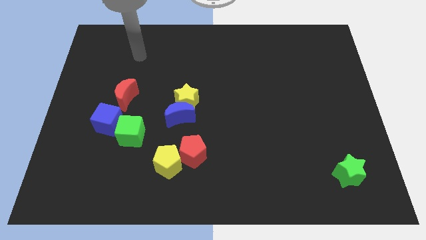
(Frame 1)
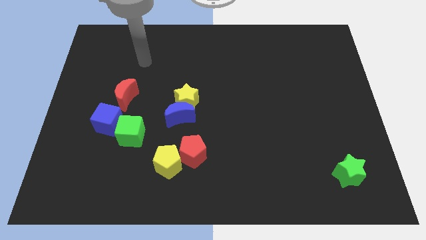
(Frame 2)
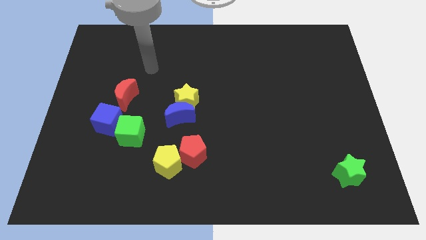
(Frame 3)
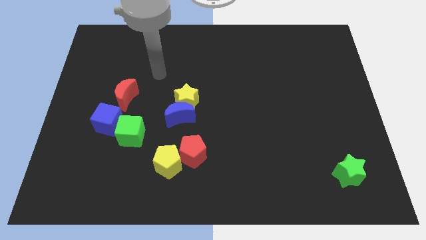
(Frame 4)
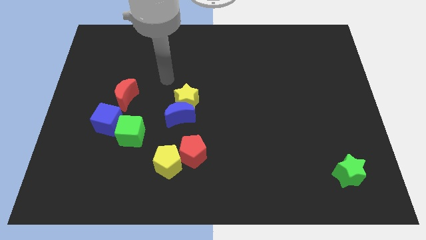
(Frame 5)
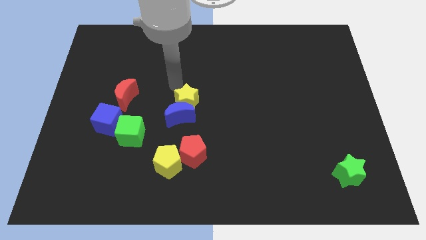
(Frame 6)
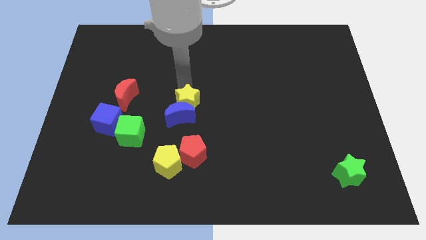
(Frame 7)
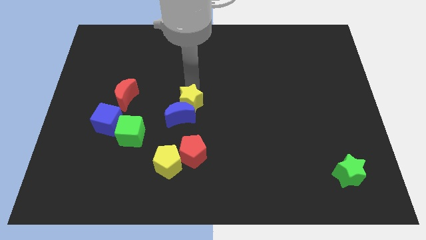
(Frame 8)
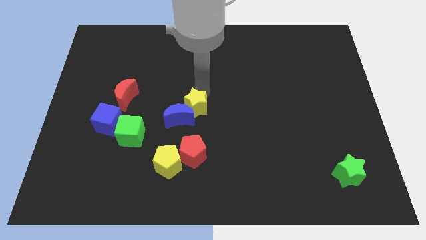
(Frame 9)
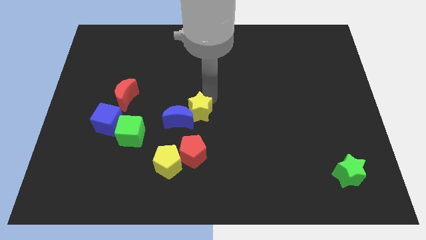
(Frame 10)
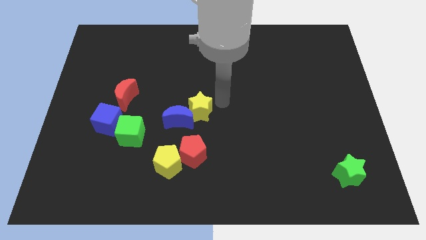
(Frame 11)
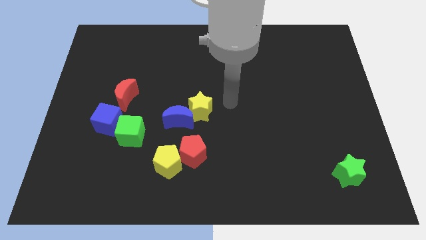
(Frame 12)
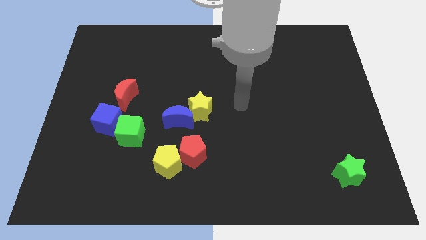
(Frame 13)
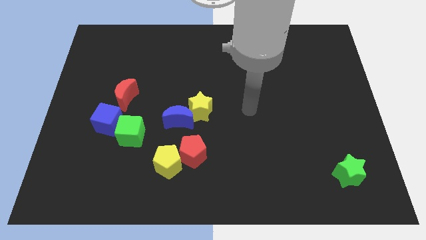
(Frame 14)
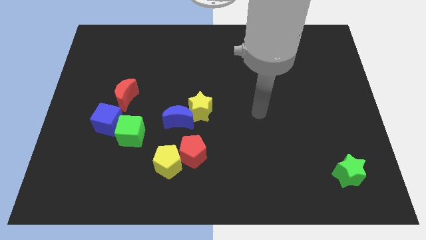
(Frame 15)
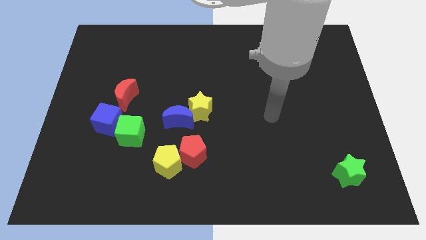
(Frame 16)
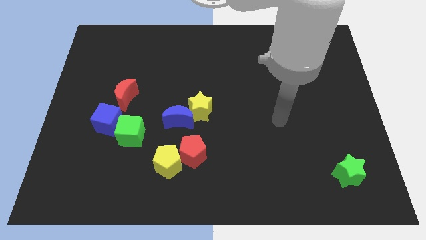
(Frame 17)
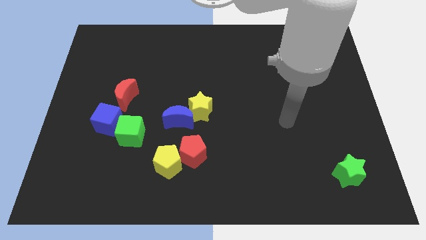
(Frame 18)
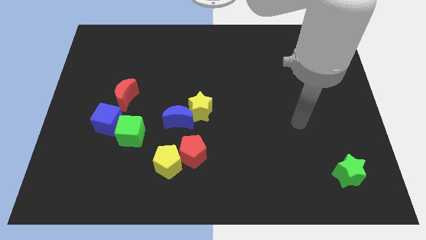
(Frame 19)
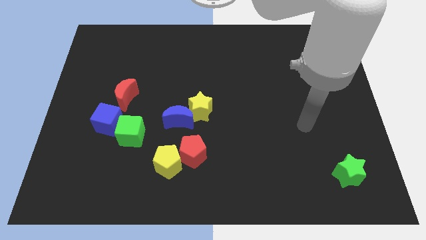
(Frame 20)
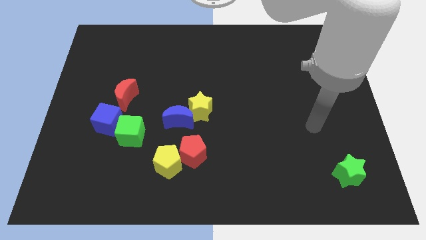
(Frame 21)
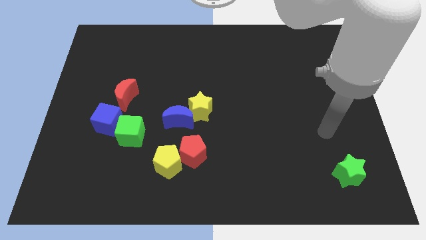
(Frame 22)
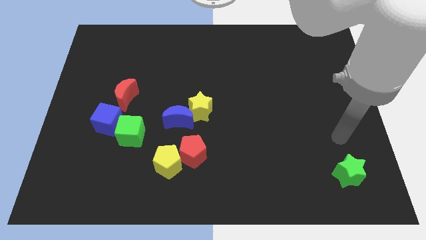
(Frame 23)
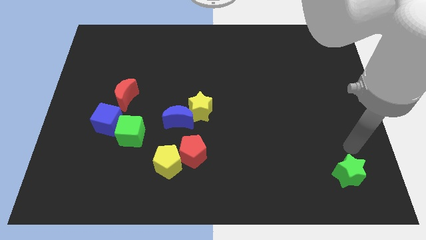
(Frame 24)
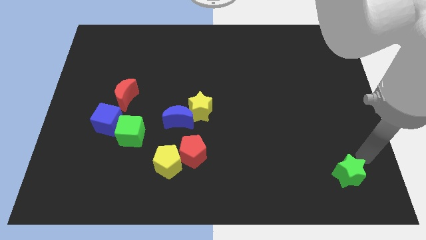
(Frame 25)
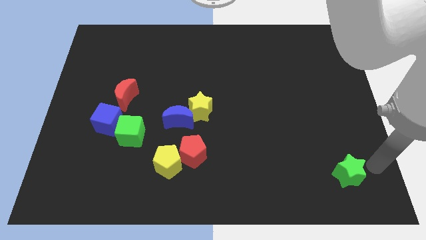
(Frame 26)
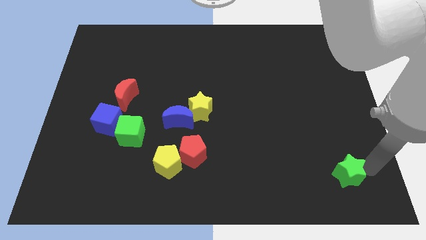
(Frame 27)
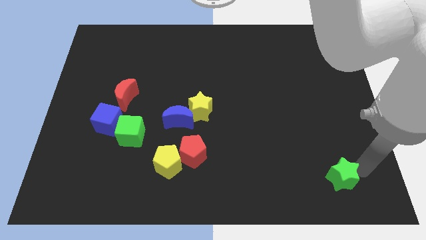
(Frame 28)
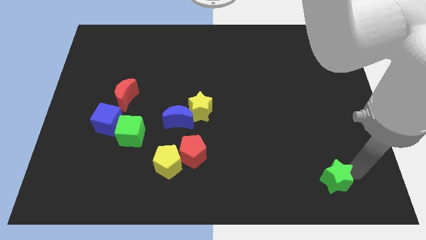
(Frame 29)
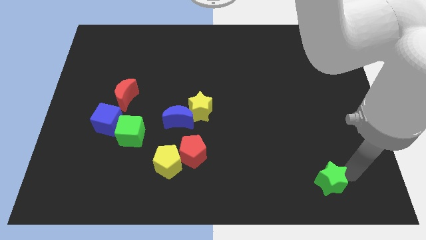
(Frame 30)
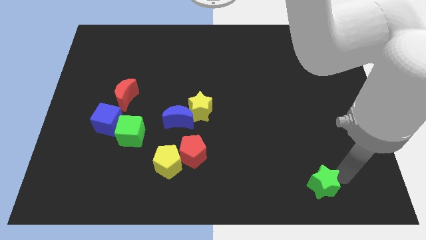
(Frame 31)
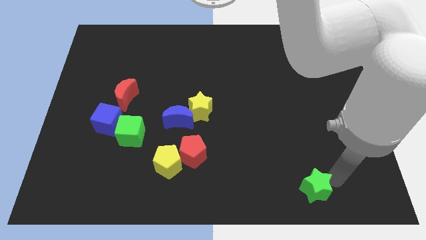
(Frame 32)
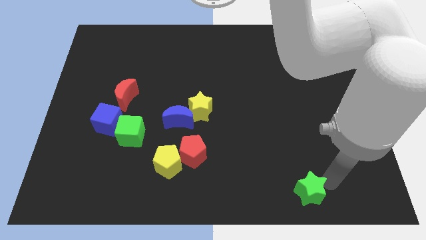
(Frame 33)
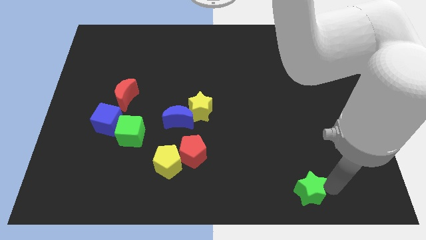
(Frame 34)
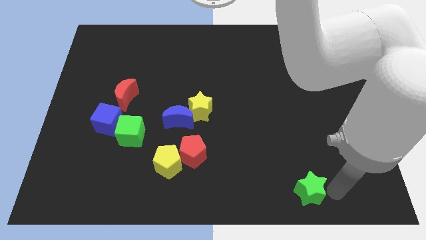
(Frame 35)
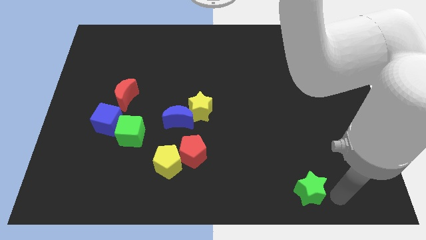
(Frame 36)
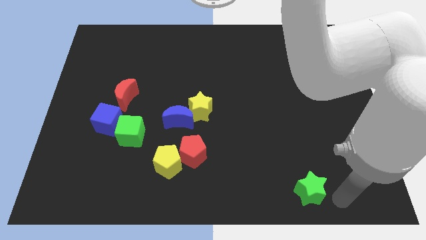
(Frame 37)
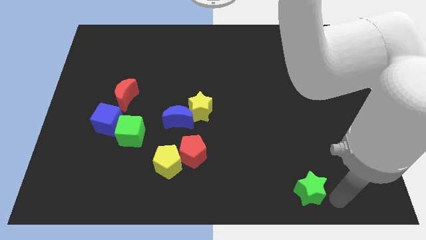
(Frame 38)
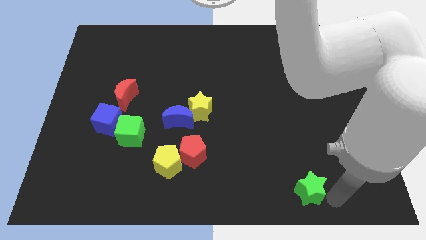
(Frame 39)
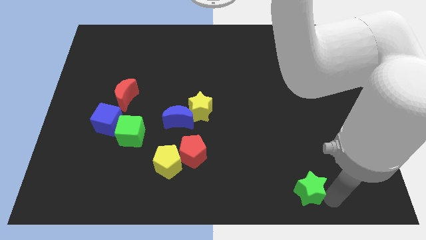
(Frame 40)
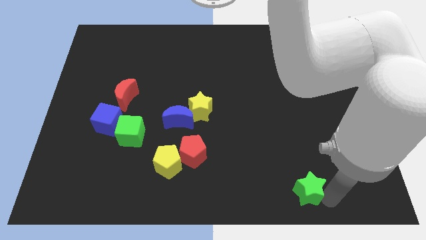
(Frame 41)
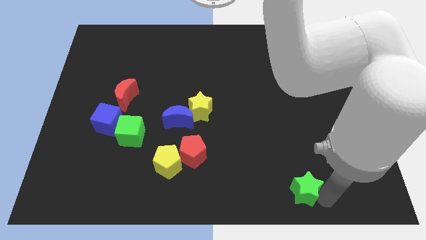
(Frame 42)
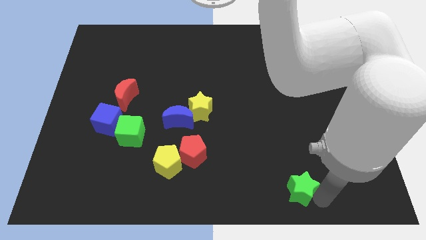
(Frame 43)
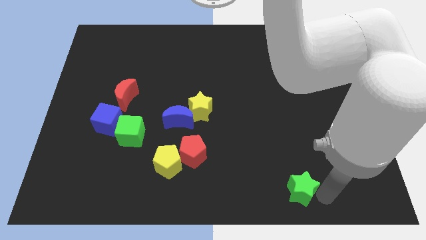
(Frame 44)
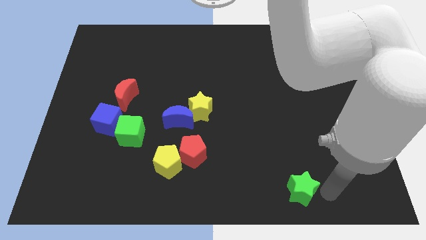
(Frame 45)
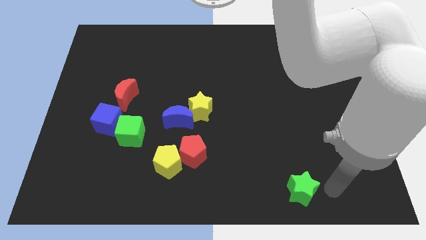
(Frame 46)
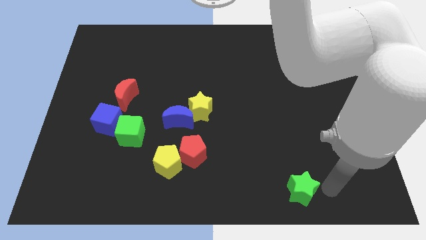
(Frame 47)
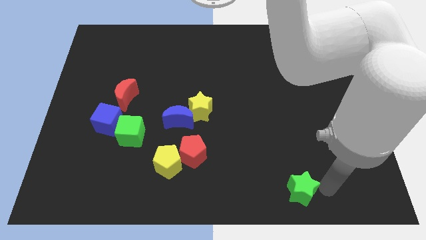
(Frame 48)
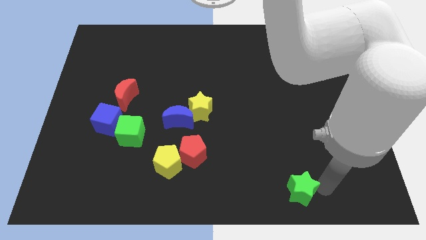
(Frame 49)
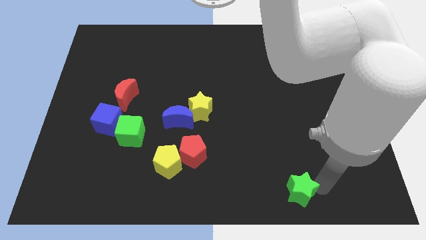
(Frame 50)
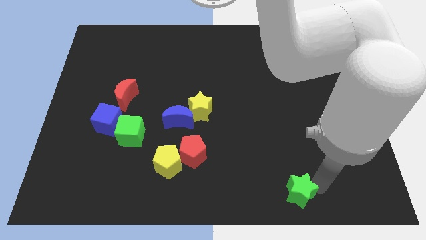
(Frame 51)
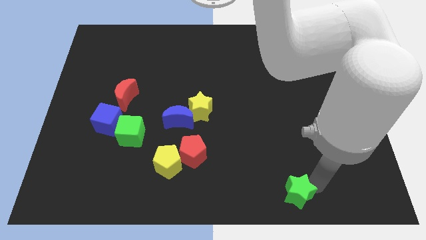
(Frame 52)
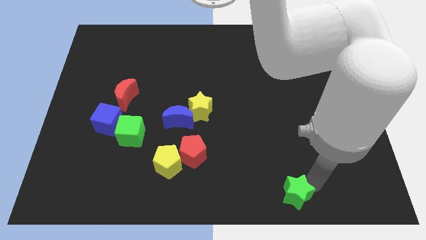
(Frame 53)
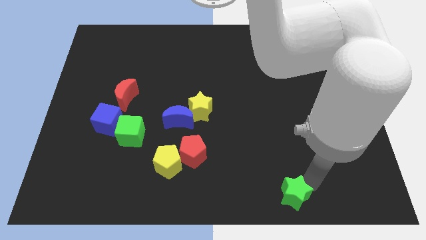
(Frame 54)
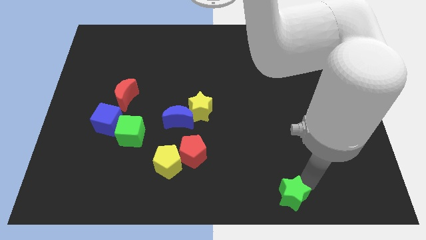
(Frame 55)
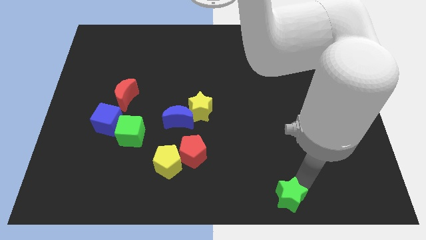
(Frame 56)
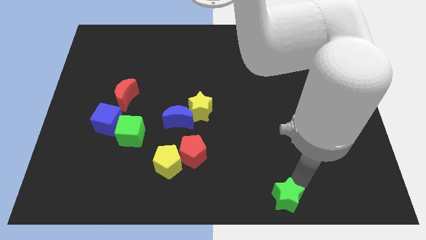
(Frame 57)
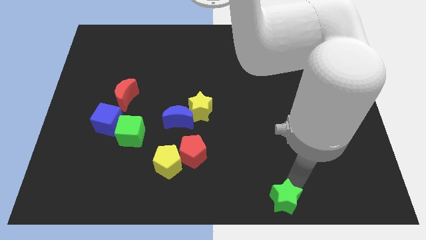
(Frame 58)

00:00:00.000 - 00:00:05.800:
move the green star to the bottom side

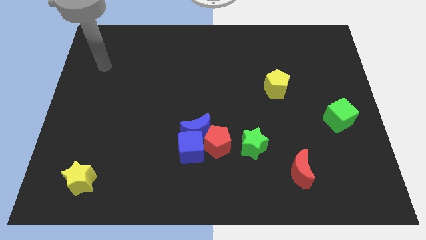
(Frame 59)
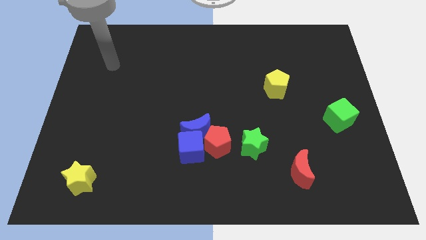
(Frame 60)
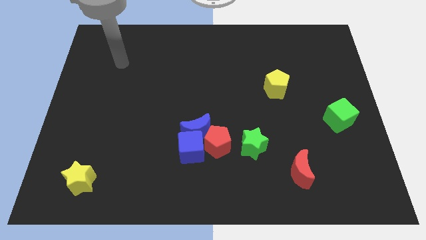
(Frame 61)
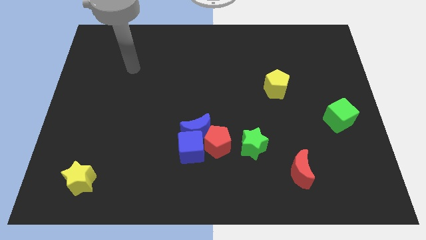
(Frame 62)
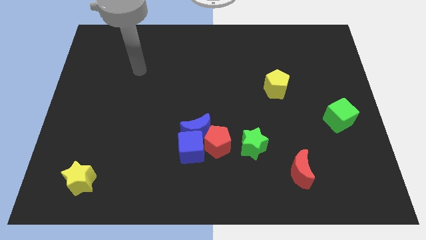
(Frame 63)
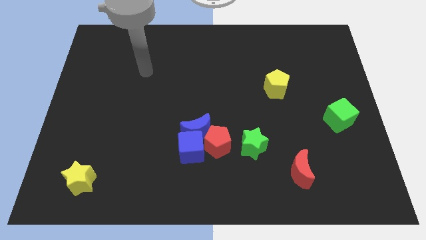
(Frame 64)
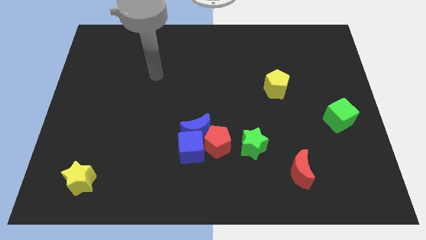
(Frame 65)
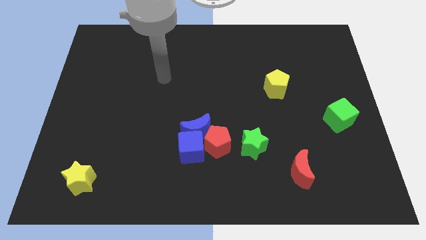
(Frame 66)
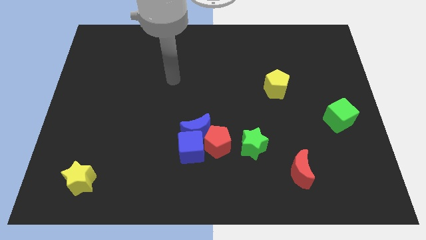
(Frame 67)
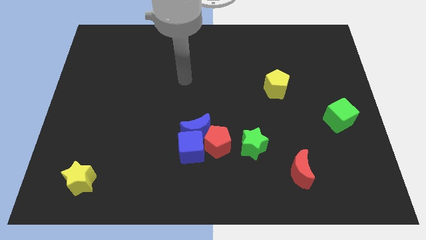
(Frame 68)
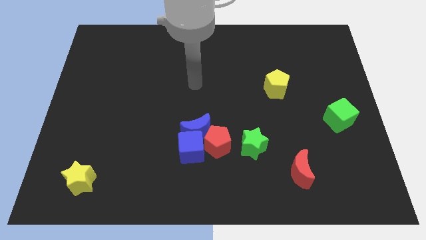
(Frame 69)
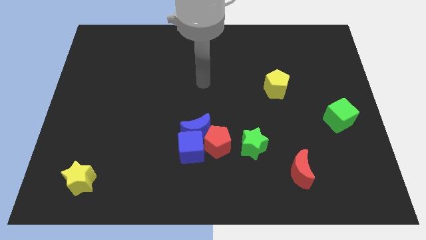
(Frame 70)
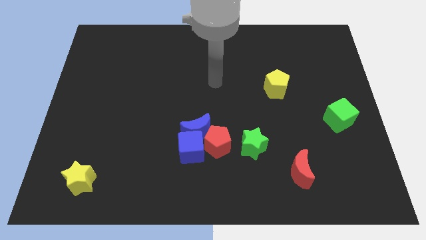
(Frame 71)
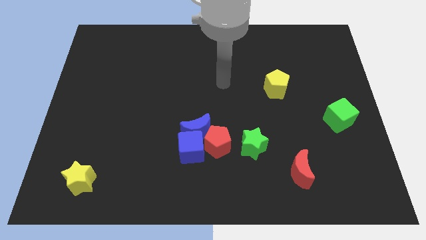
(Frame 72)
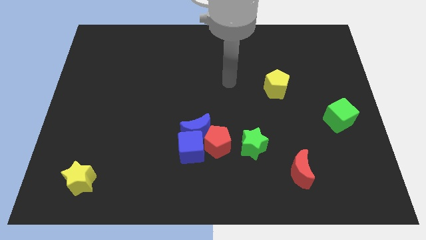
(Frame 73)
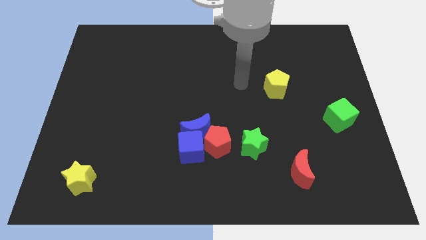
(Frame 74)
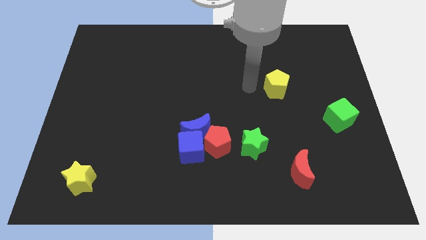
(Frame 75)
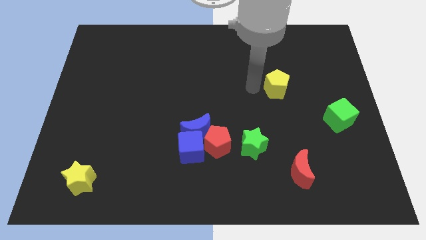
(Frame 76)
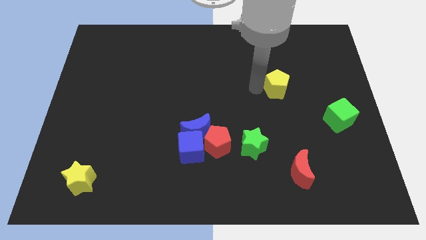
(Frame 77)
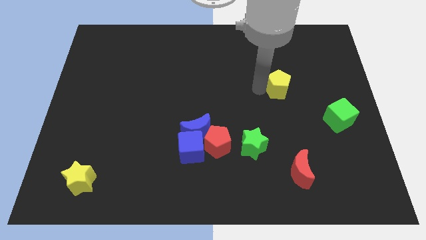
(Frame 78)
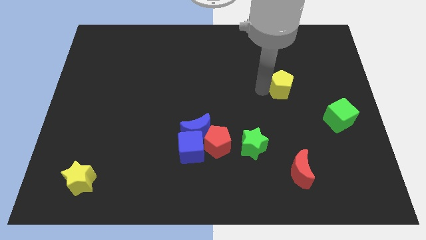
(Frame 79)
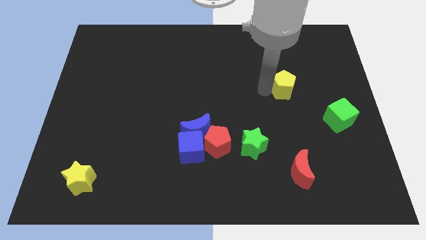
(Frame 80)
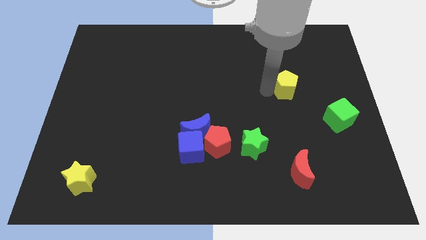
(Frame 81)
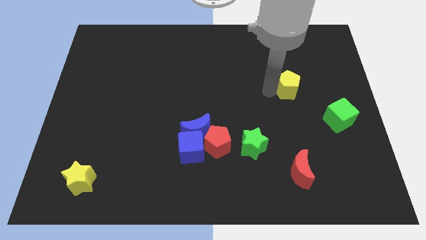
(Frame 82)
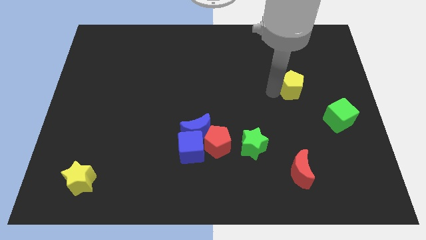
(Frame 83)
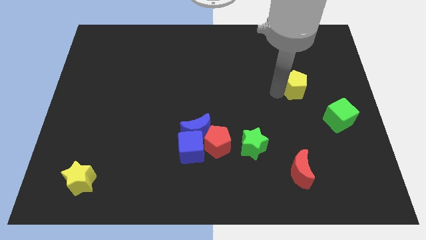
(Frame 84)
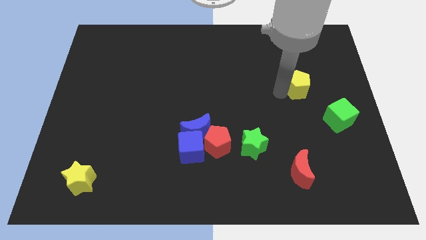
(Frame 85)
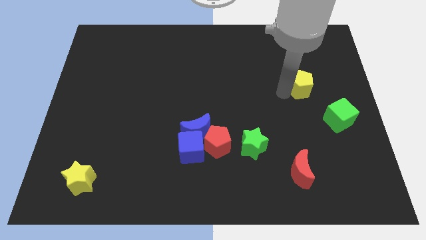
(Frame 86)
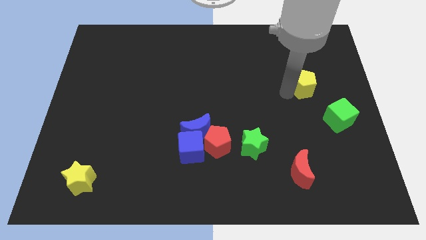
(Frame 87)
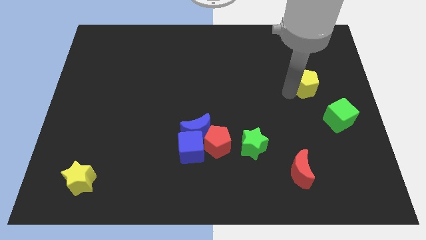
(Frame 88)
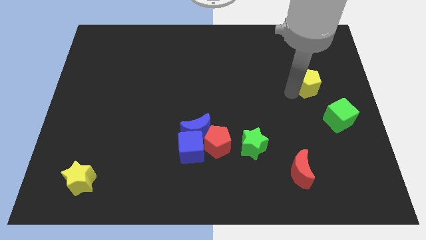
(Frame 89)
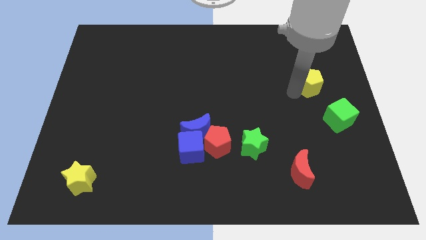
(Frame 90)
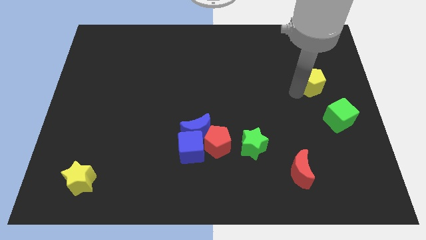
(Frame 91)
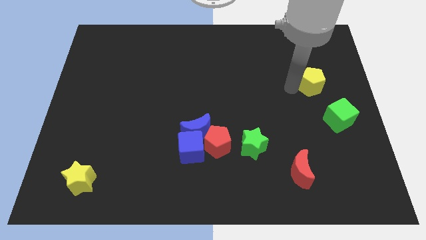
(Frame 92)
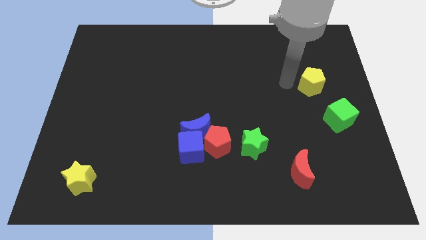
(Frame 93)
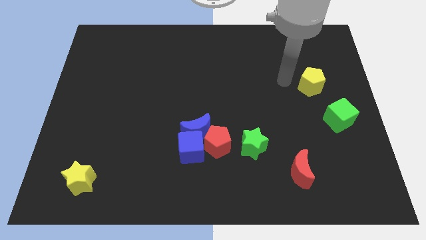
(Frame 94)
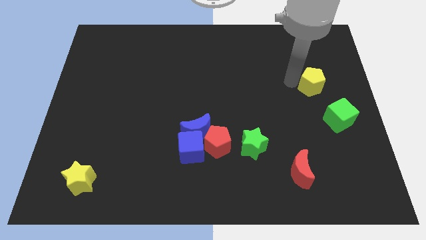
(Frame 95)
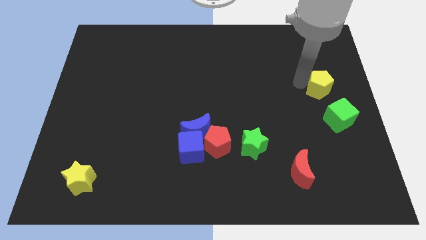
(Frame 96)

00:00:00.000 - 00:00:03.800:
move the yellow pentagon to the right side
